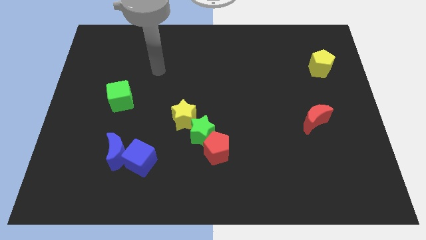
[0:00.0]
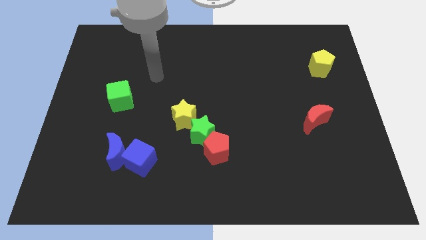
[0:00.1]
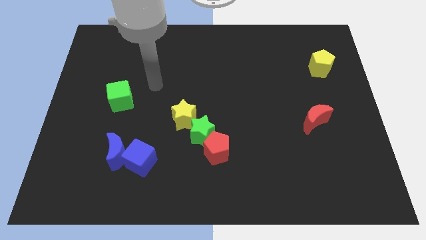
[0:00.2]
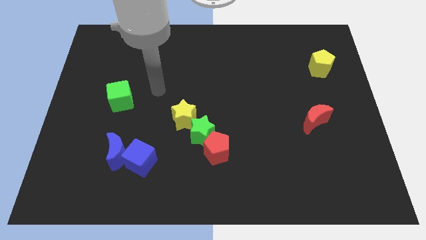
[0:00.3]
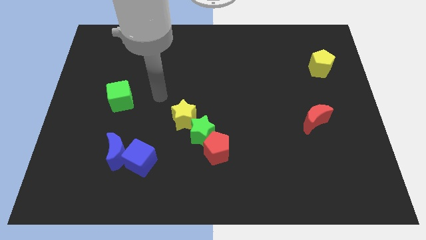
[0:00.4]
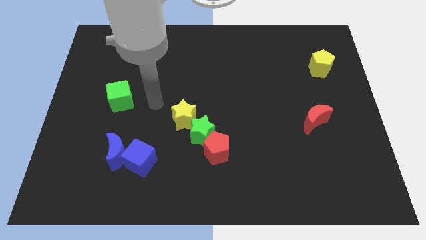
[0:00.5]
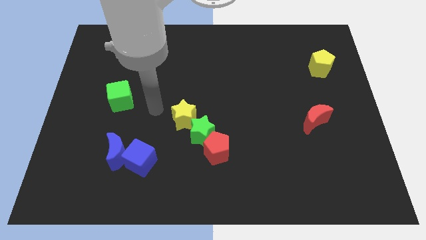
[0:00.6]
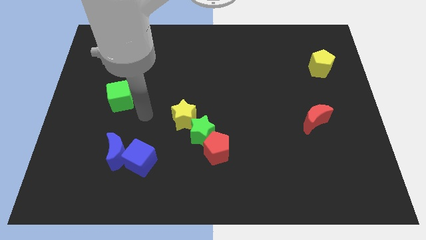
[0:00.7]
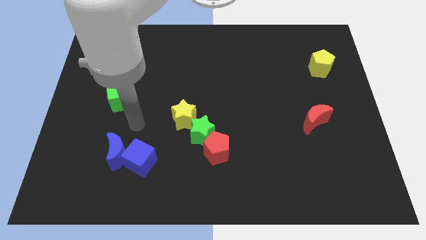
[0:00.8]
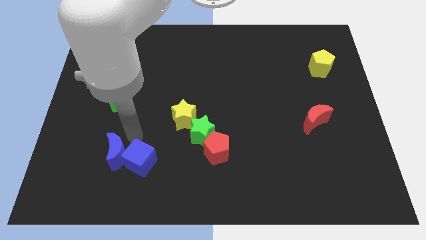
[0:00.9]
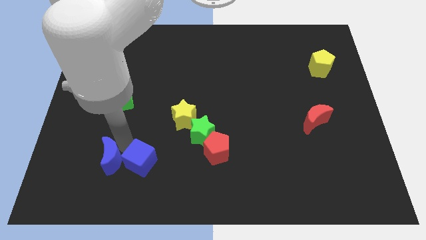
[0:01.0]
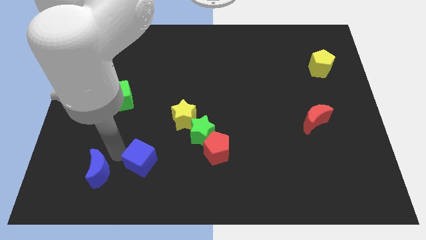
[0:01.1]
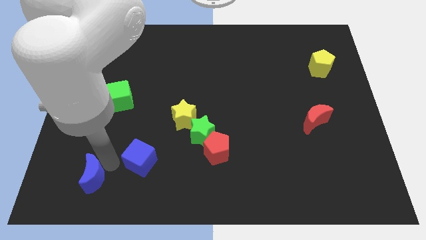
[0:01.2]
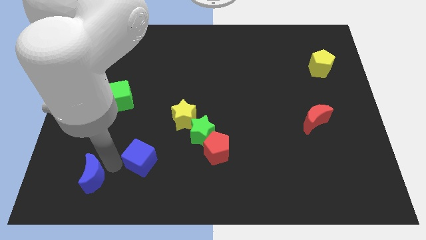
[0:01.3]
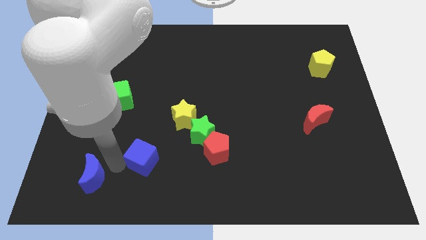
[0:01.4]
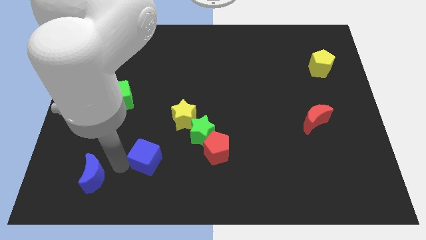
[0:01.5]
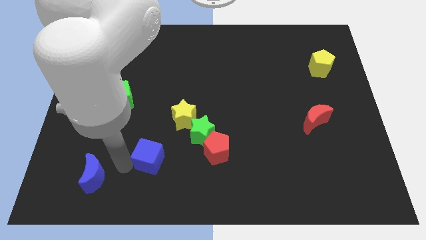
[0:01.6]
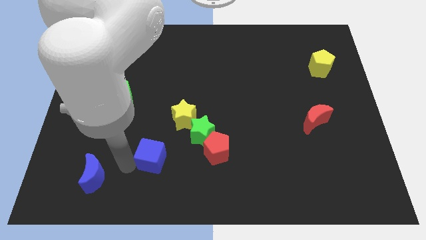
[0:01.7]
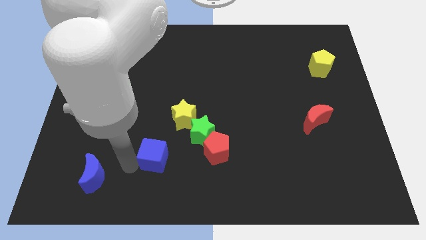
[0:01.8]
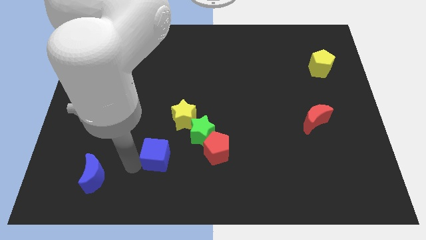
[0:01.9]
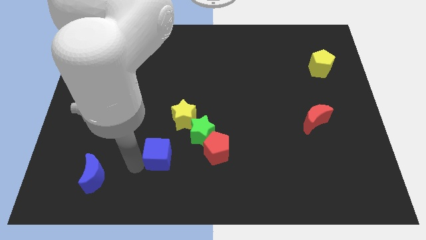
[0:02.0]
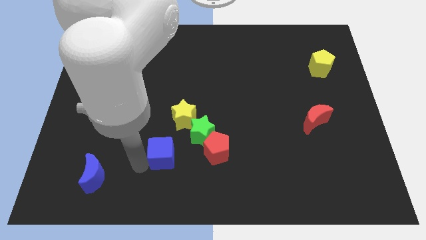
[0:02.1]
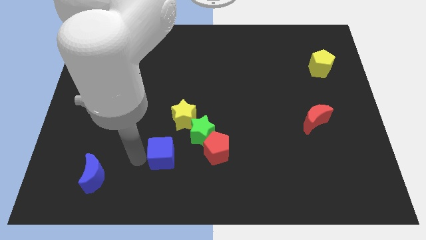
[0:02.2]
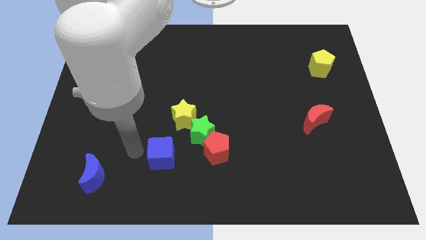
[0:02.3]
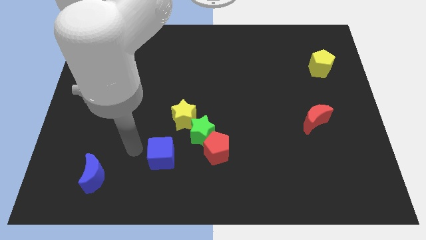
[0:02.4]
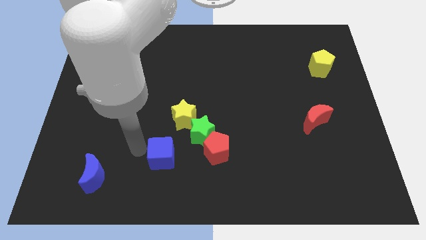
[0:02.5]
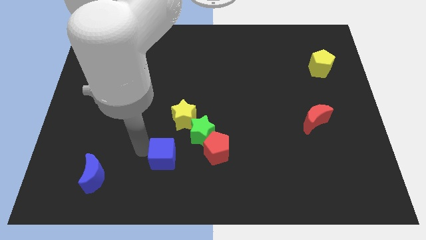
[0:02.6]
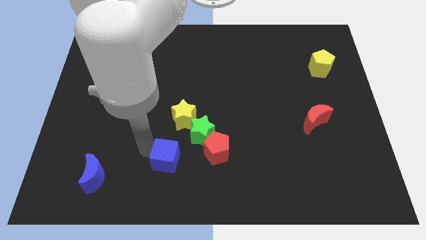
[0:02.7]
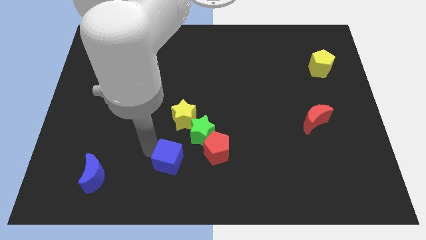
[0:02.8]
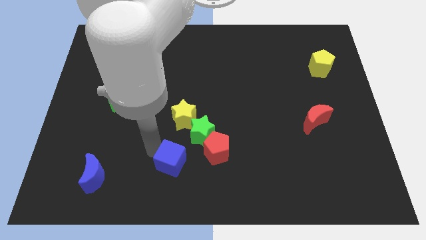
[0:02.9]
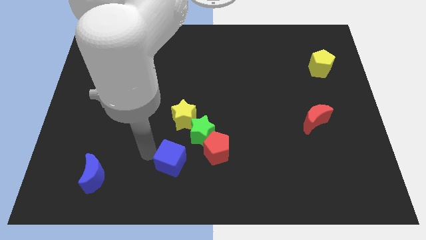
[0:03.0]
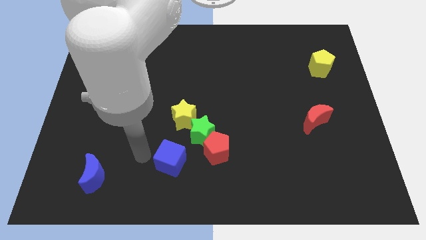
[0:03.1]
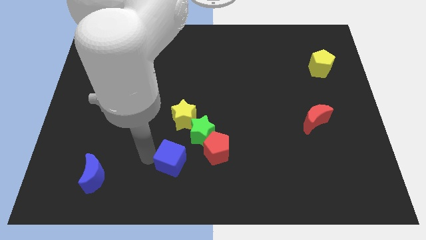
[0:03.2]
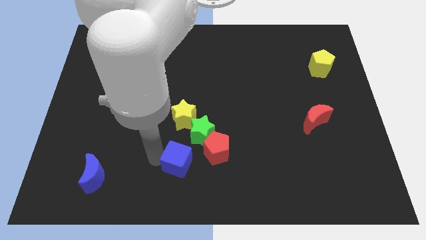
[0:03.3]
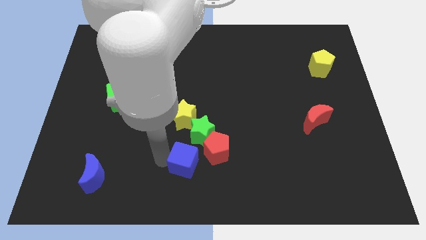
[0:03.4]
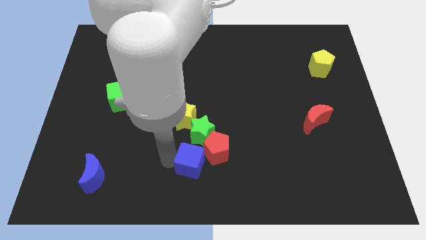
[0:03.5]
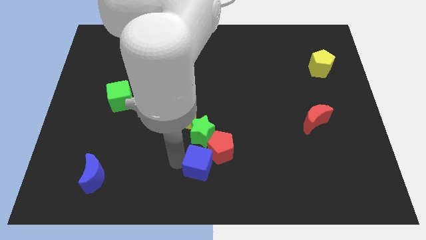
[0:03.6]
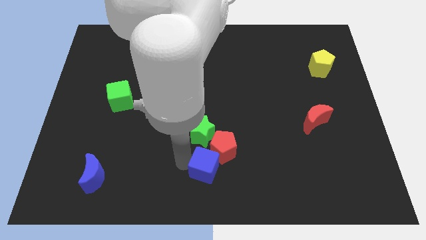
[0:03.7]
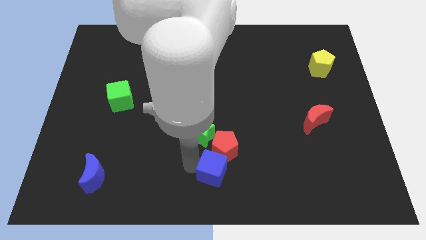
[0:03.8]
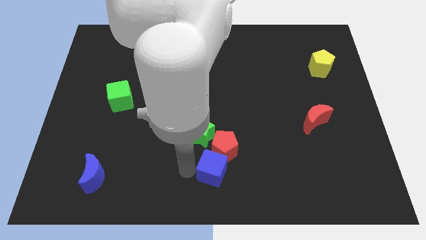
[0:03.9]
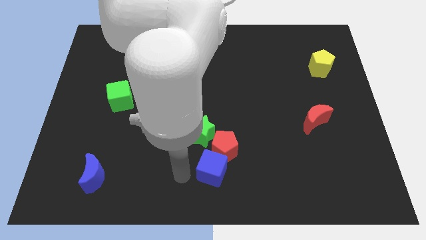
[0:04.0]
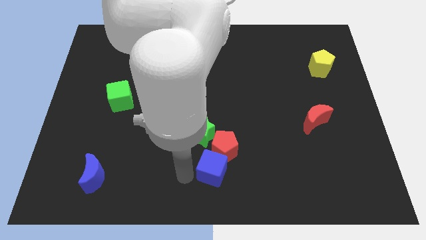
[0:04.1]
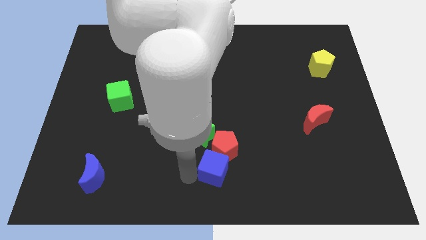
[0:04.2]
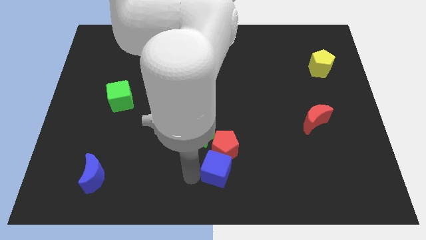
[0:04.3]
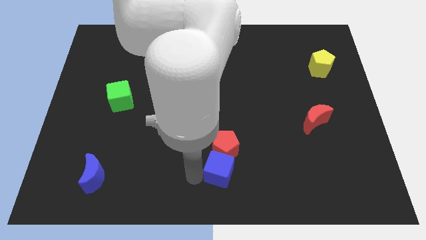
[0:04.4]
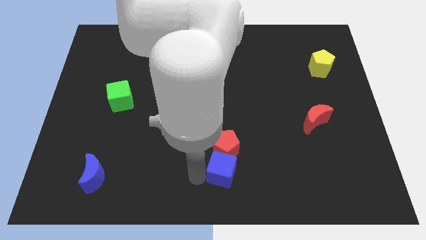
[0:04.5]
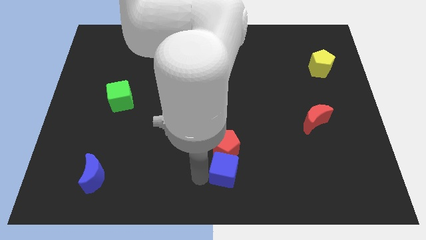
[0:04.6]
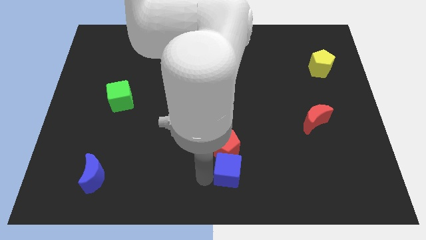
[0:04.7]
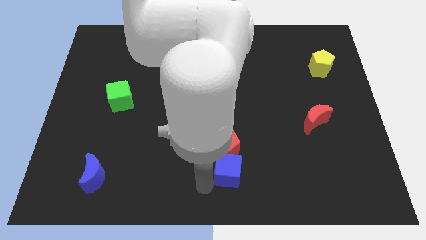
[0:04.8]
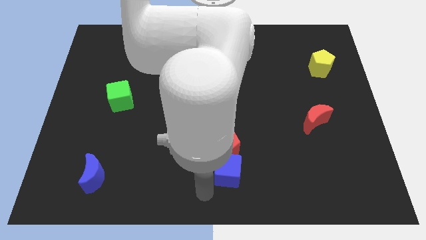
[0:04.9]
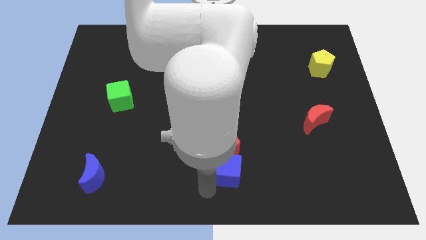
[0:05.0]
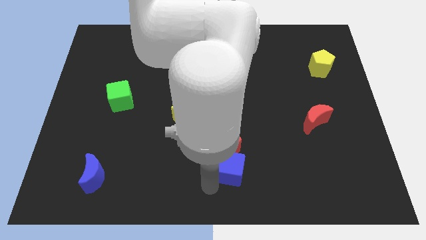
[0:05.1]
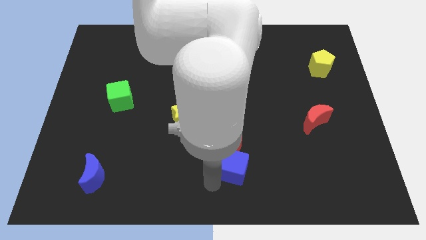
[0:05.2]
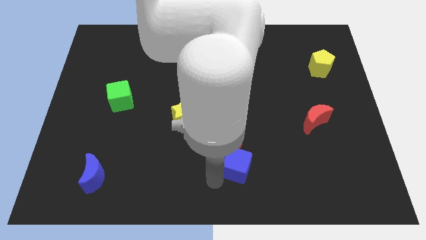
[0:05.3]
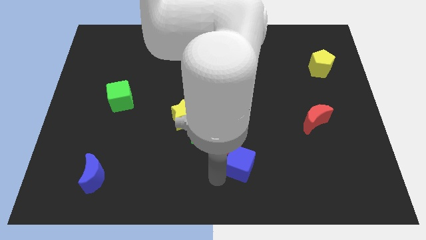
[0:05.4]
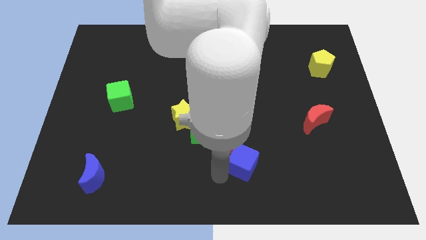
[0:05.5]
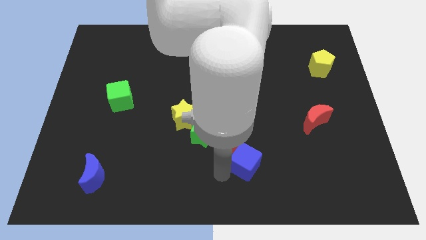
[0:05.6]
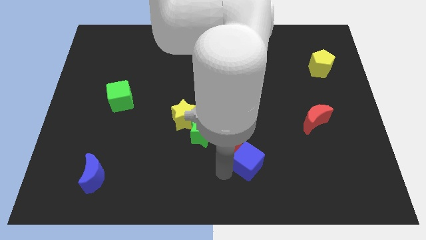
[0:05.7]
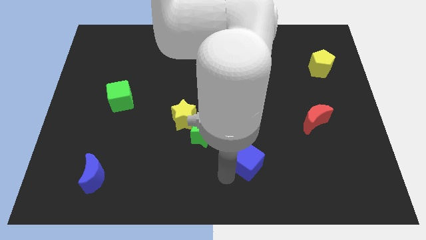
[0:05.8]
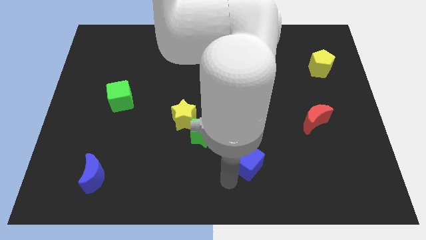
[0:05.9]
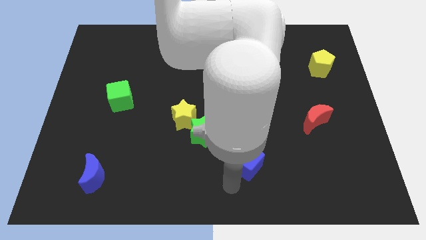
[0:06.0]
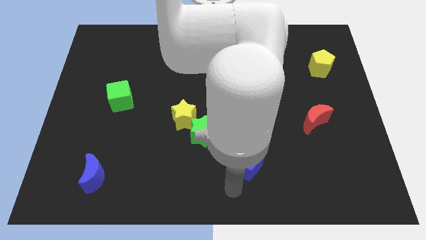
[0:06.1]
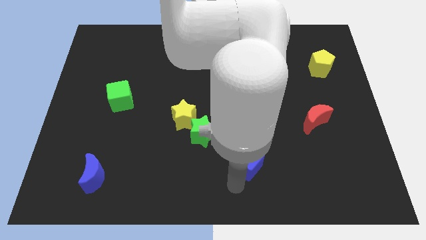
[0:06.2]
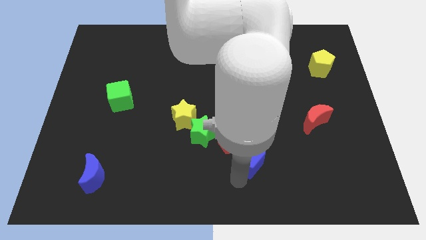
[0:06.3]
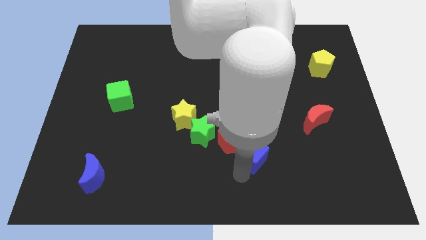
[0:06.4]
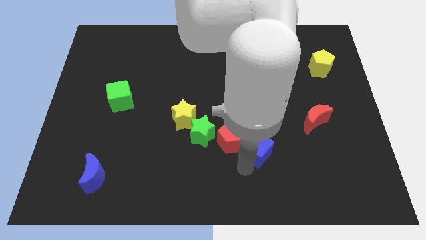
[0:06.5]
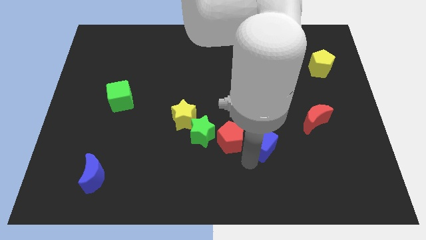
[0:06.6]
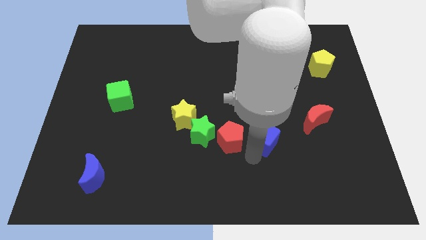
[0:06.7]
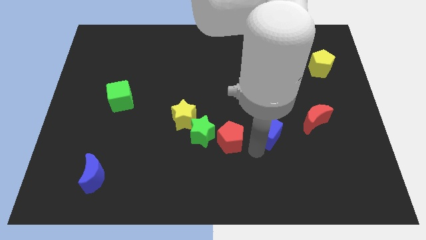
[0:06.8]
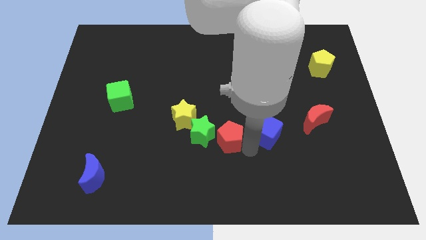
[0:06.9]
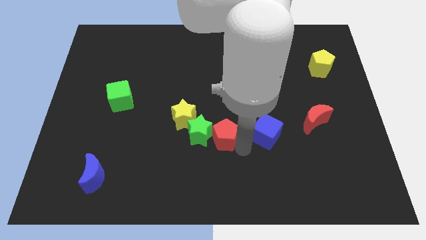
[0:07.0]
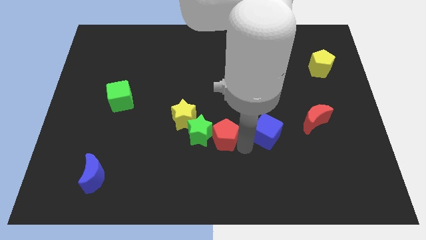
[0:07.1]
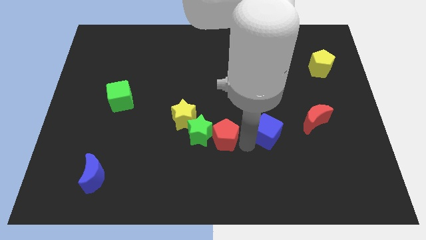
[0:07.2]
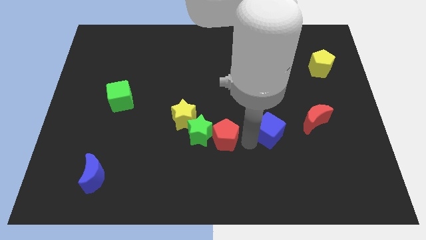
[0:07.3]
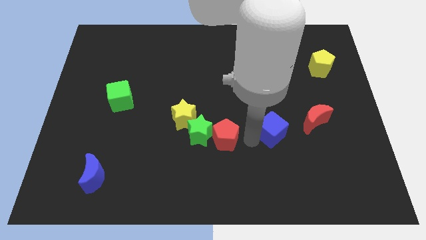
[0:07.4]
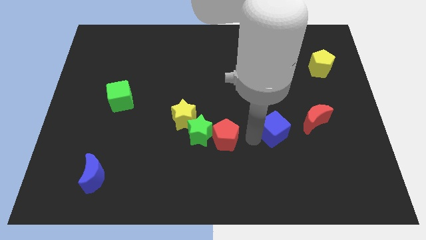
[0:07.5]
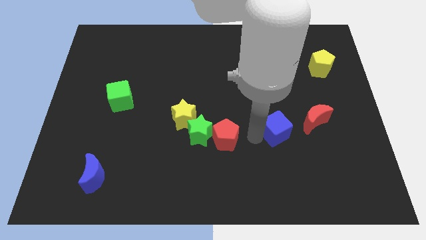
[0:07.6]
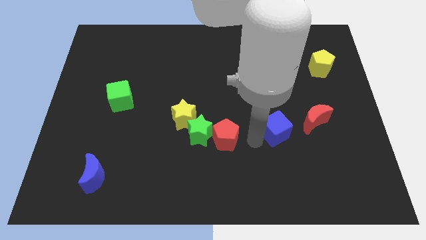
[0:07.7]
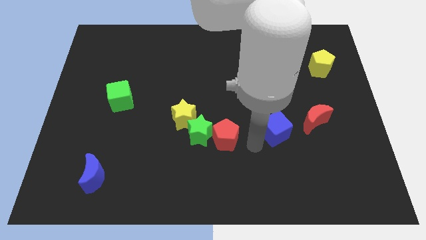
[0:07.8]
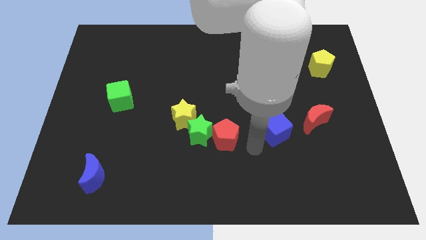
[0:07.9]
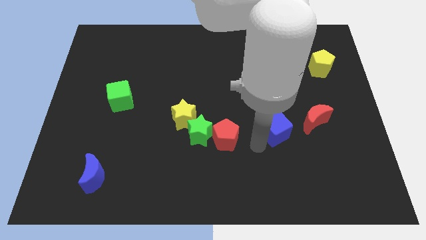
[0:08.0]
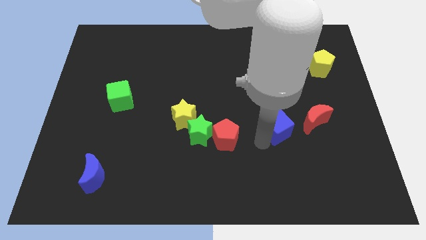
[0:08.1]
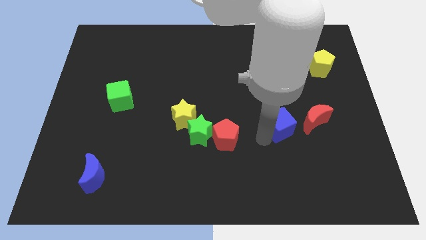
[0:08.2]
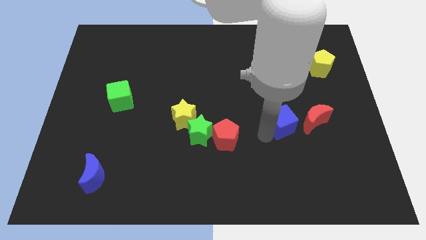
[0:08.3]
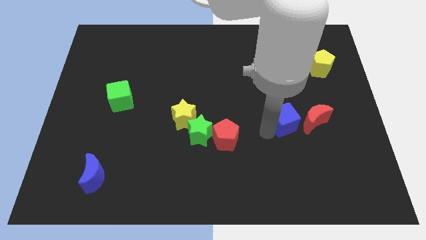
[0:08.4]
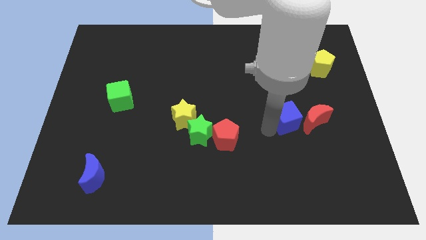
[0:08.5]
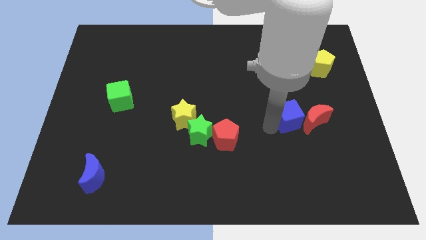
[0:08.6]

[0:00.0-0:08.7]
put the blue cube close to the red moon
